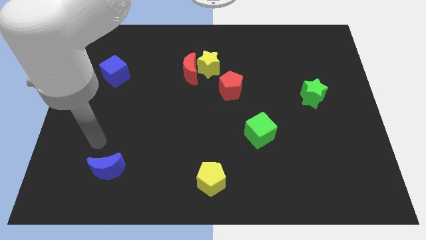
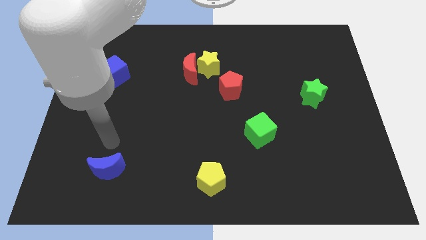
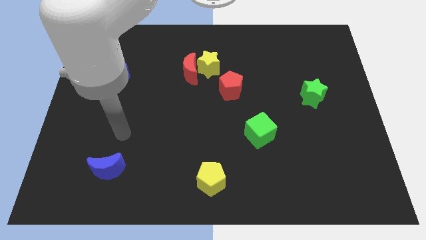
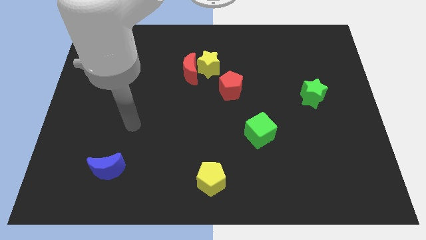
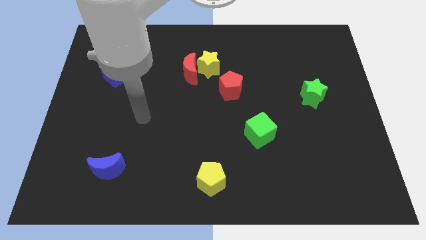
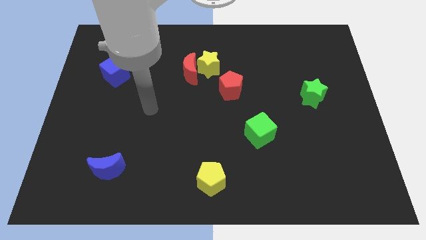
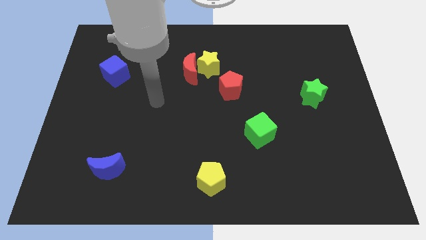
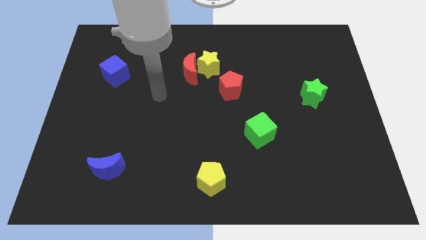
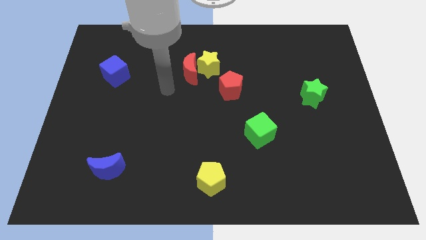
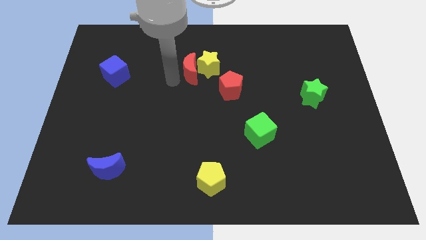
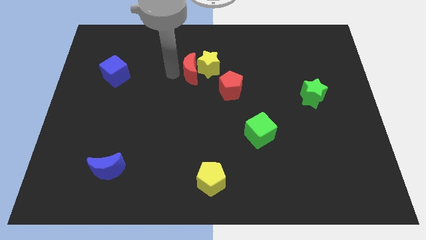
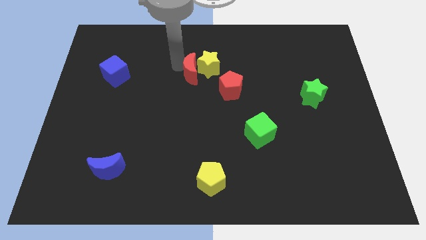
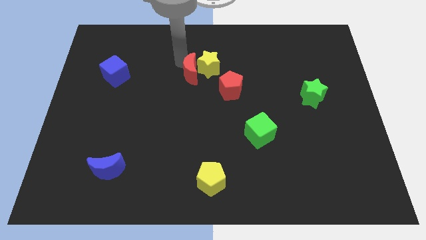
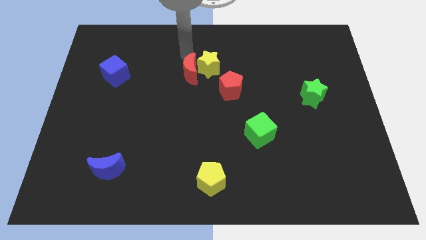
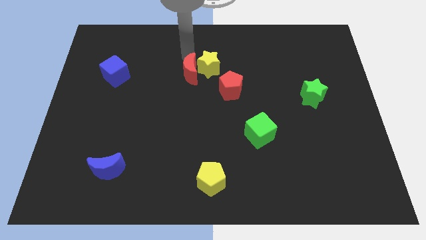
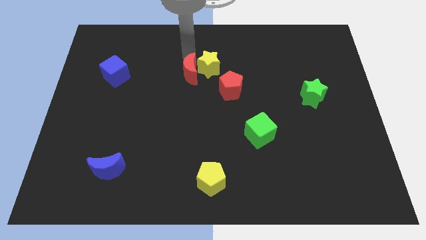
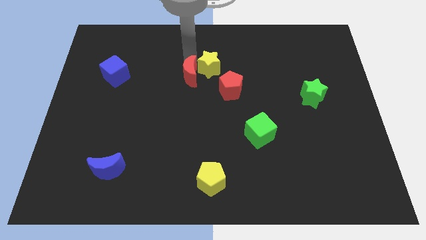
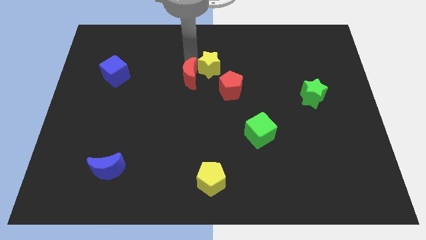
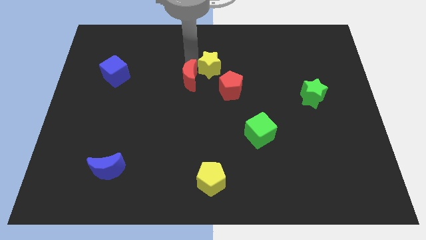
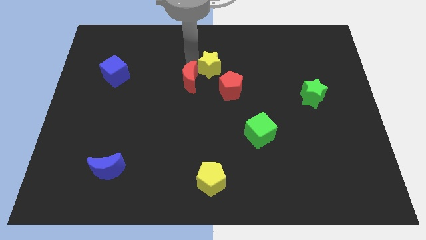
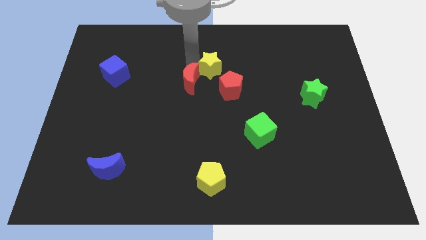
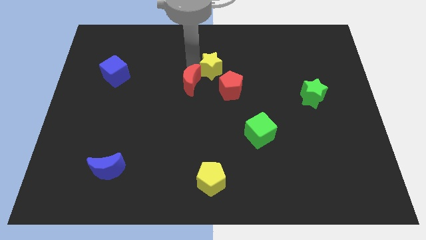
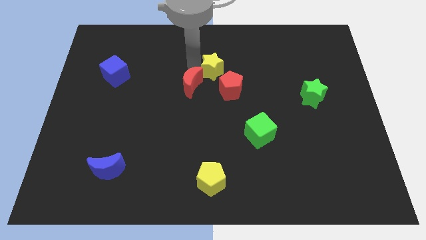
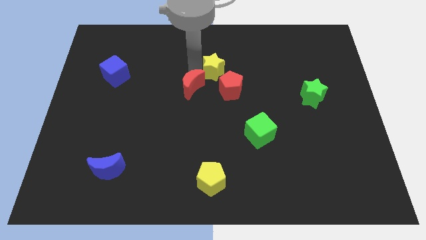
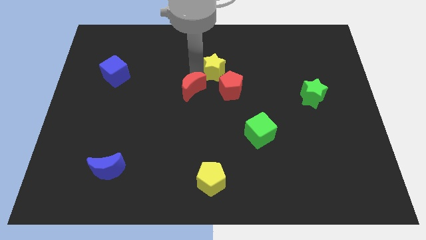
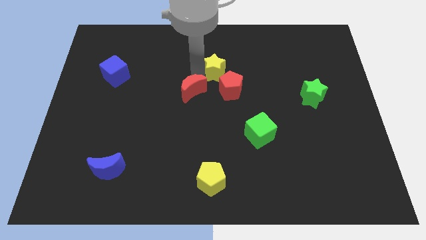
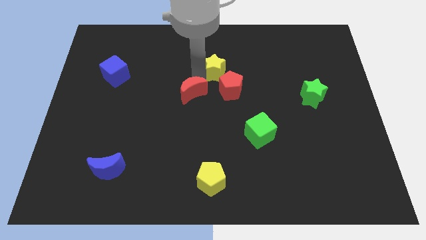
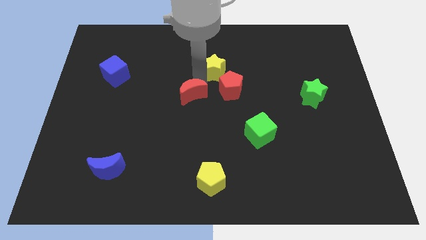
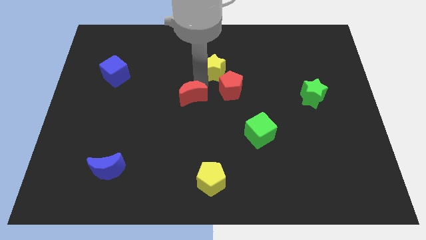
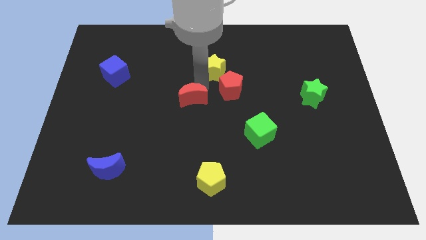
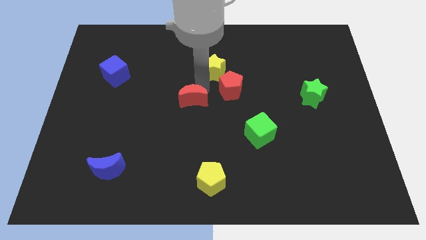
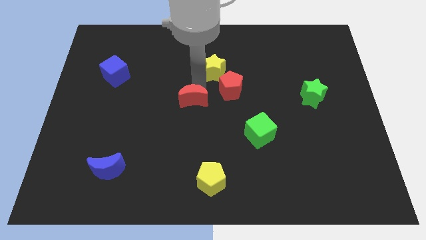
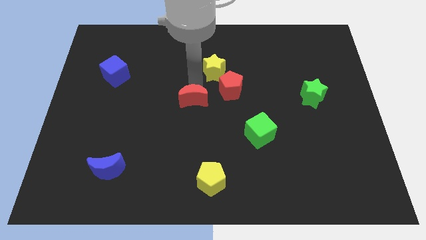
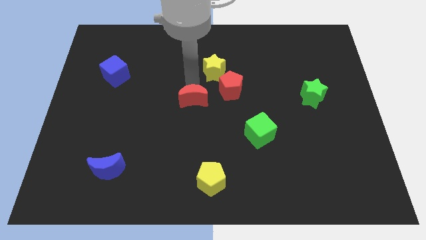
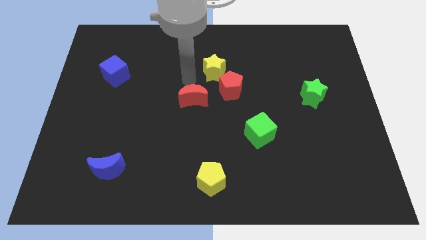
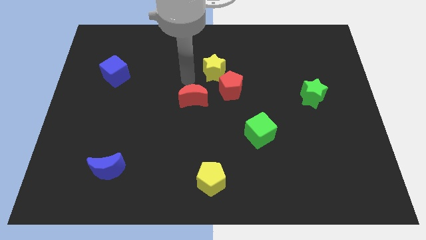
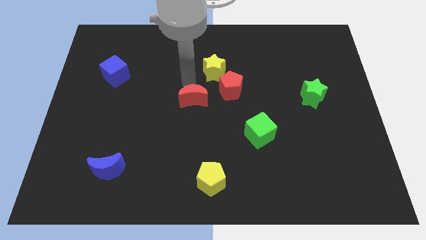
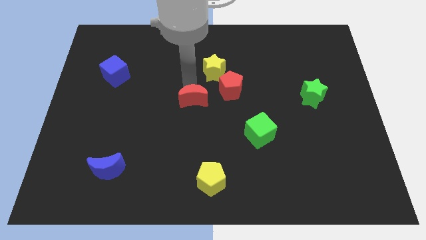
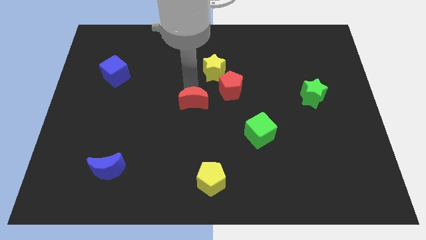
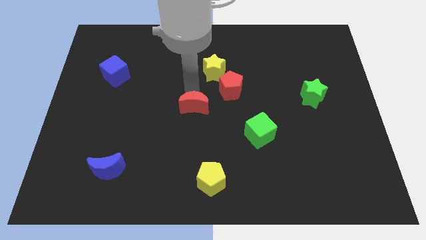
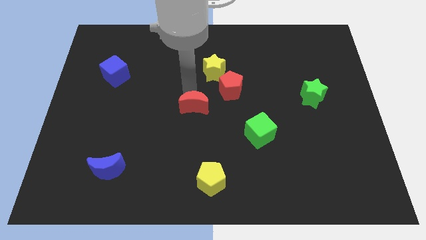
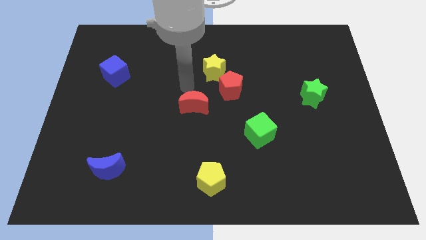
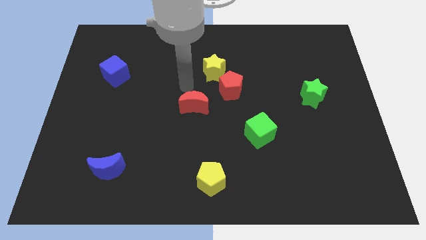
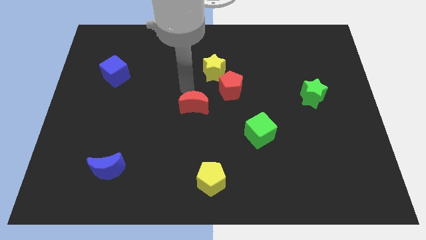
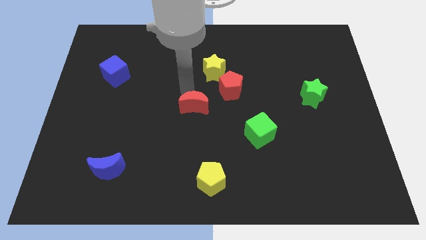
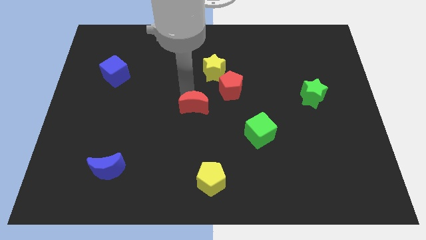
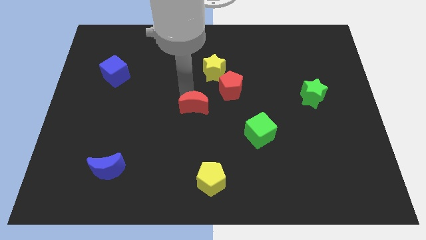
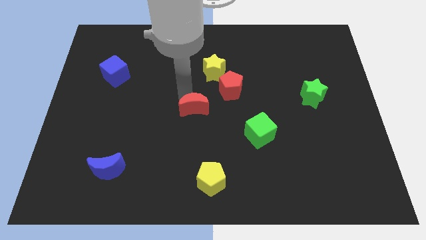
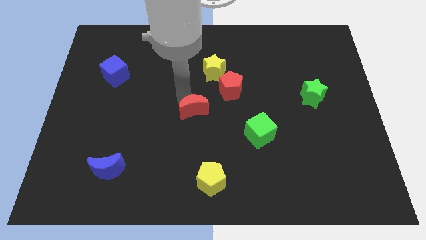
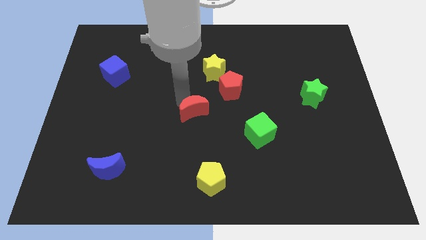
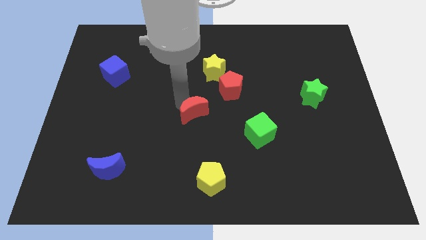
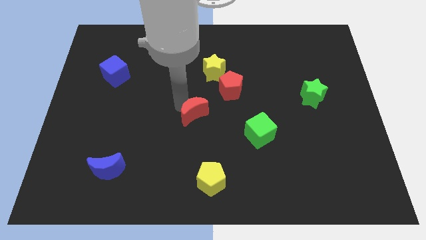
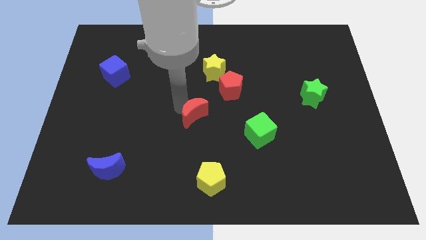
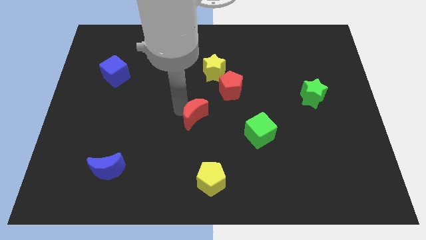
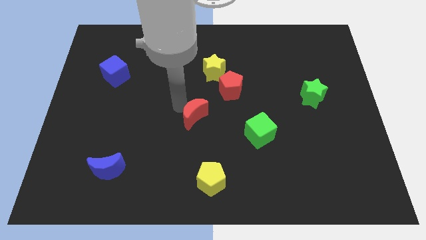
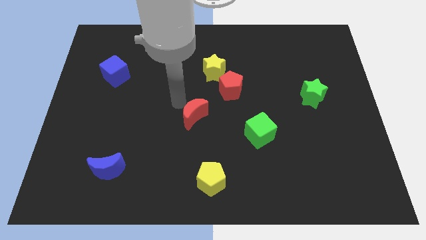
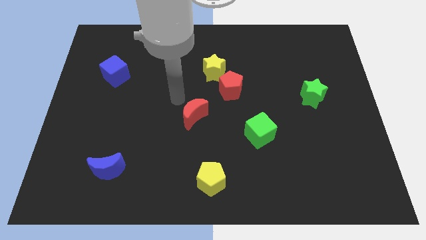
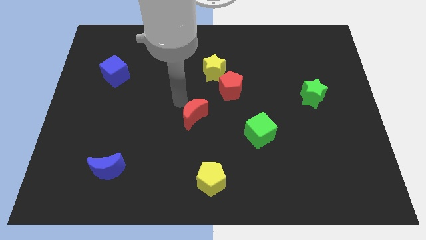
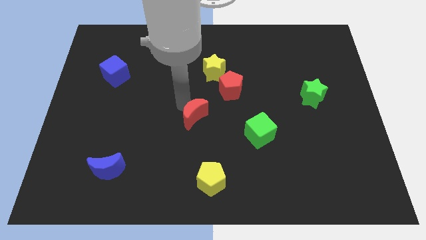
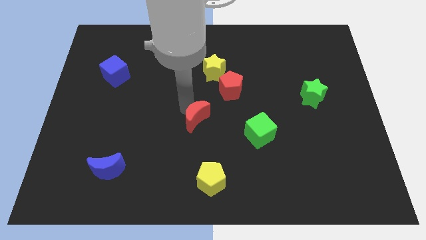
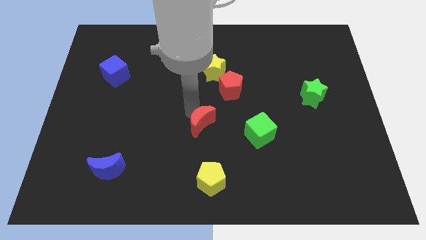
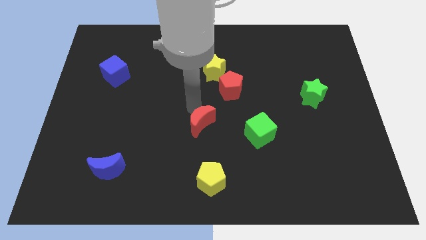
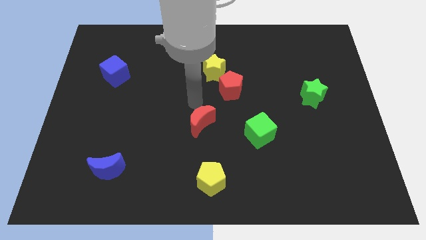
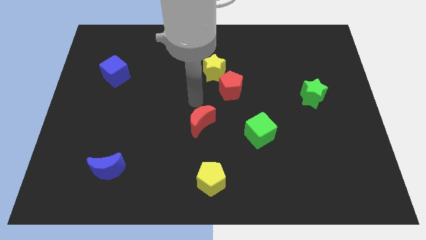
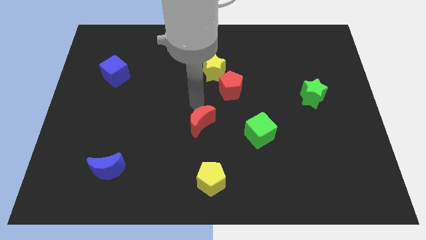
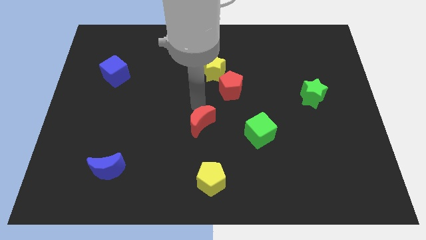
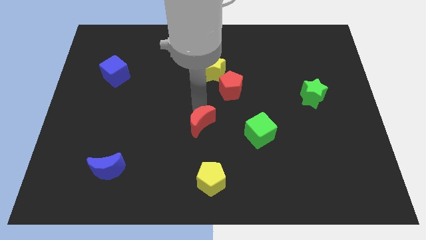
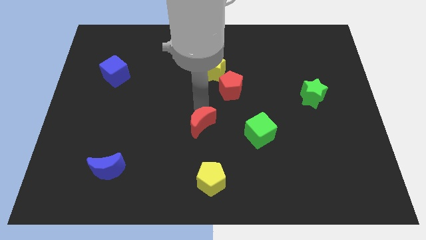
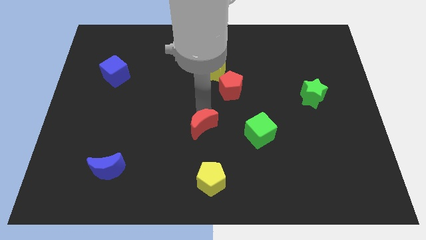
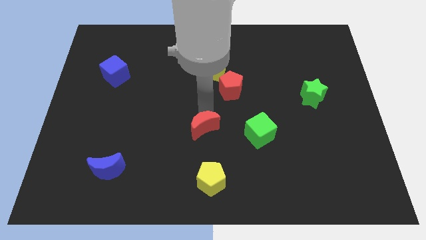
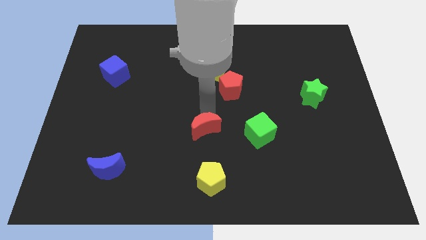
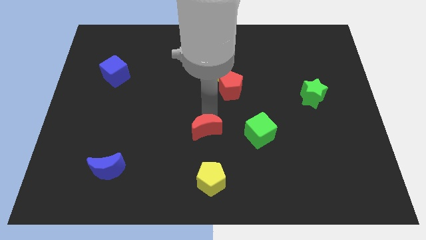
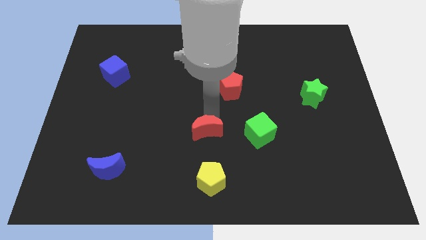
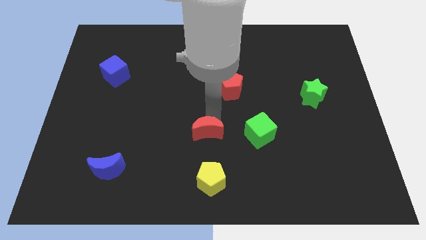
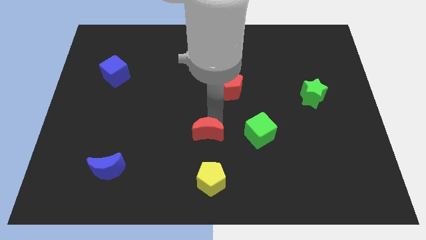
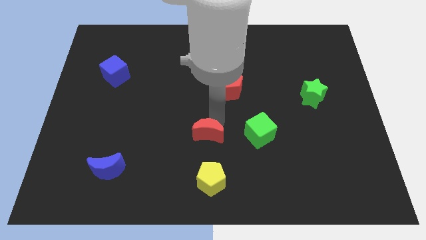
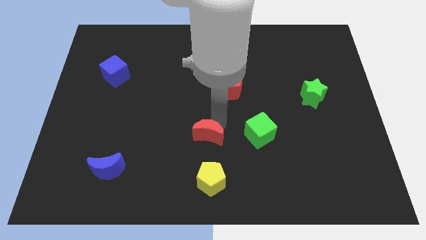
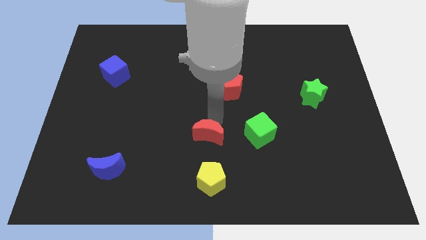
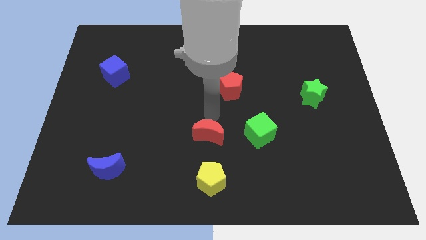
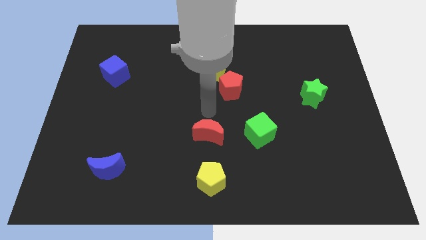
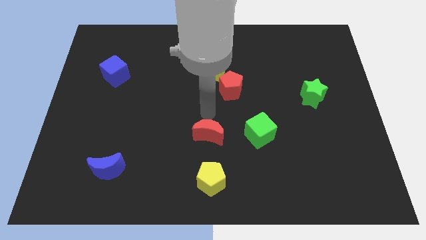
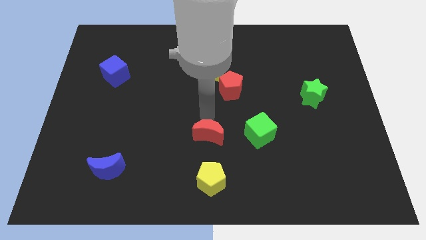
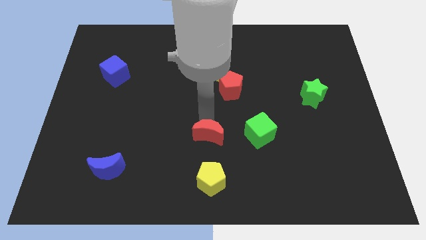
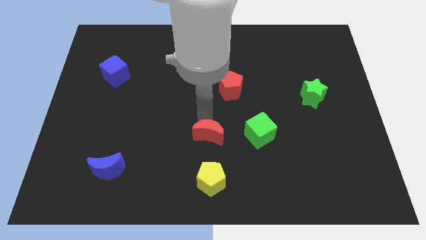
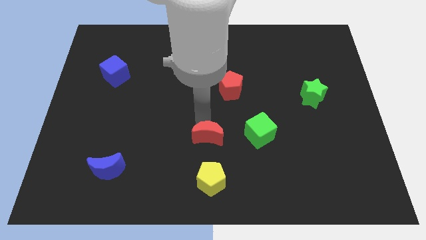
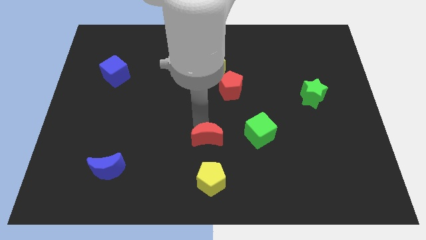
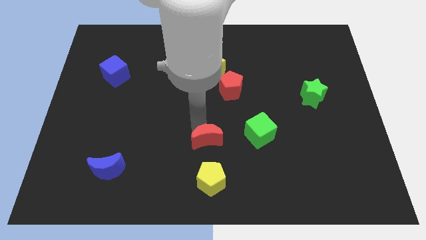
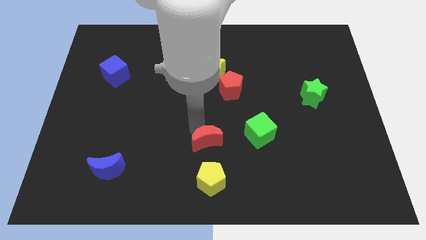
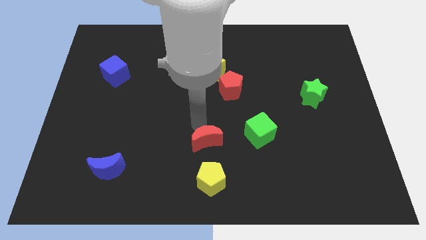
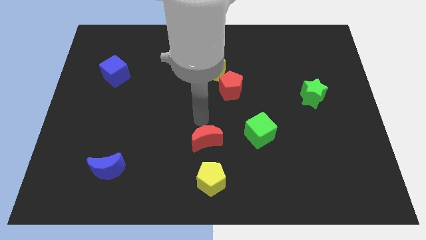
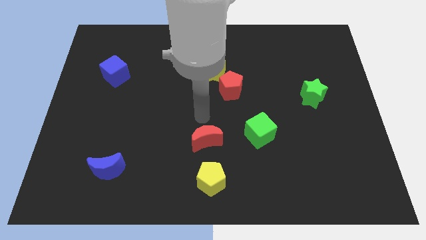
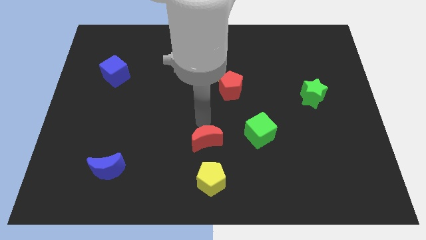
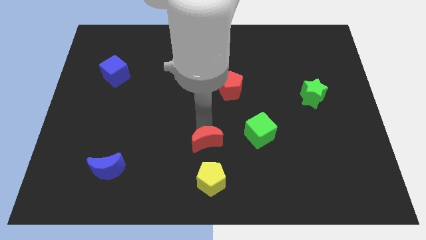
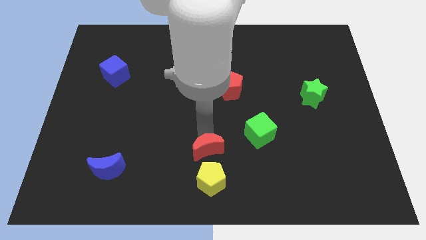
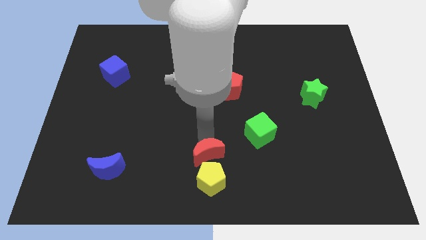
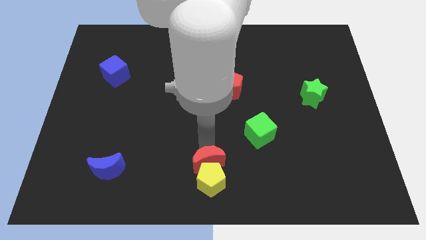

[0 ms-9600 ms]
put the red moon towards the yellow pentagon
